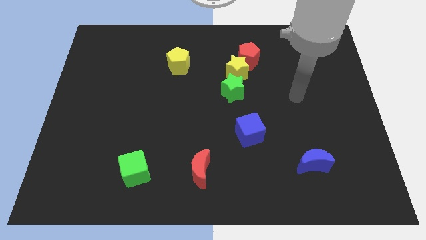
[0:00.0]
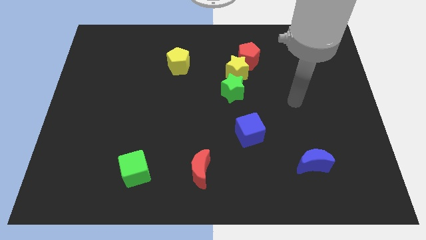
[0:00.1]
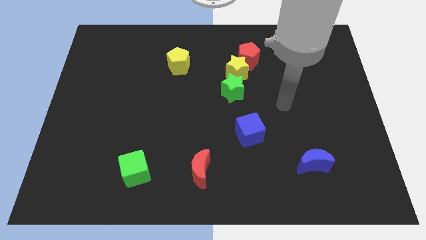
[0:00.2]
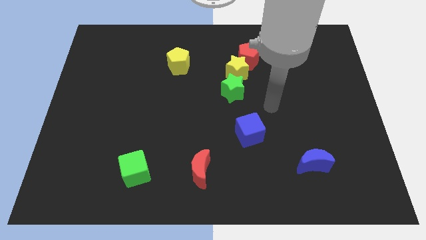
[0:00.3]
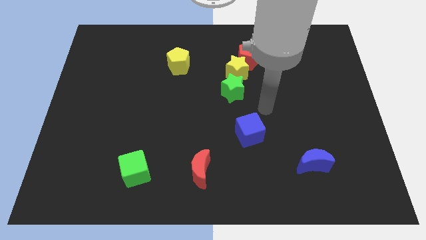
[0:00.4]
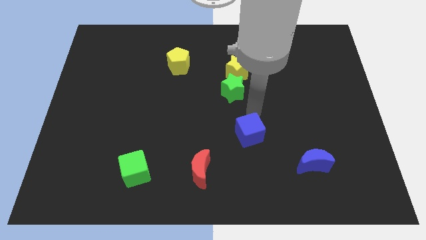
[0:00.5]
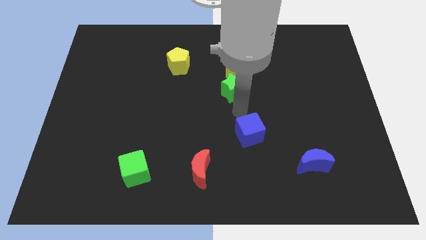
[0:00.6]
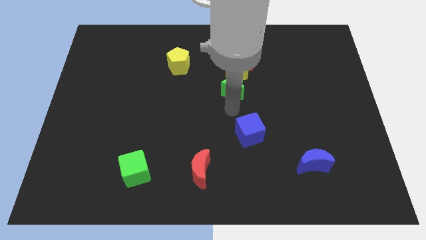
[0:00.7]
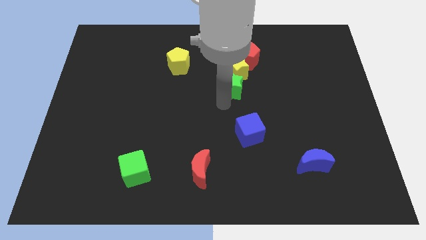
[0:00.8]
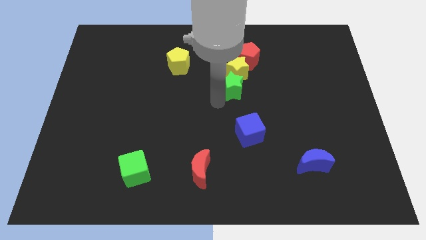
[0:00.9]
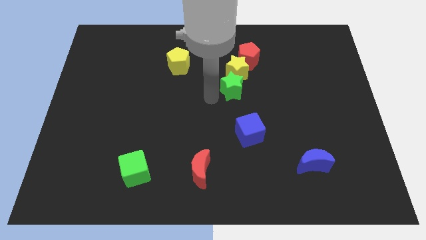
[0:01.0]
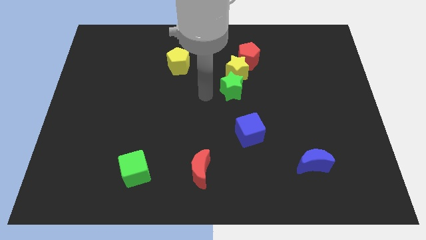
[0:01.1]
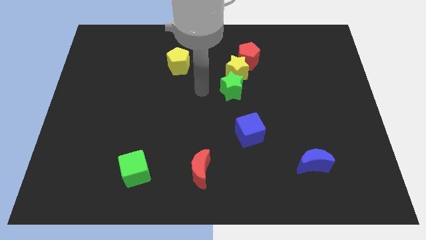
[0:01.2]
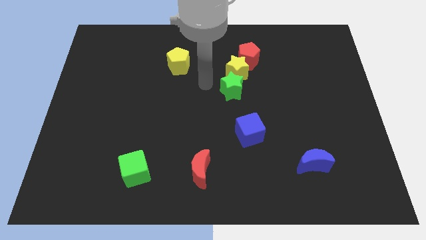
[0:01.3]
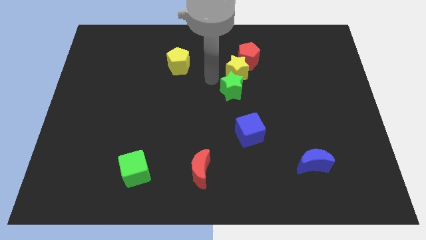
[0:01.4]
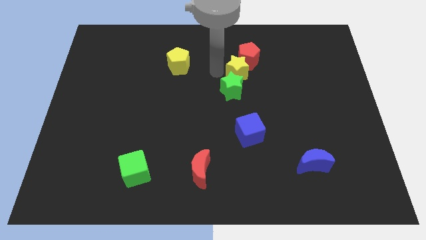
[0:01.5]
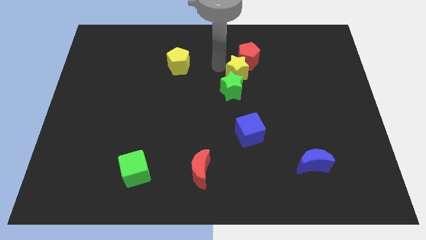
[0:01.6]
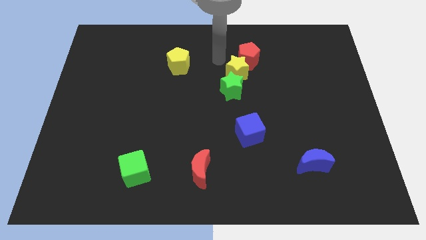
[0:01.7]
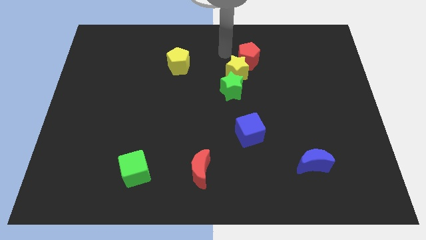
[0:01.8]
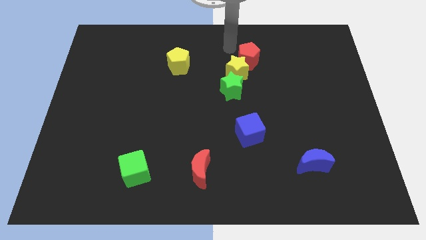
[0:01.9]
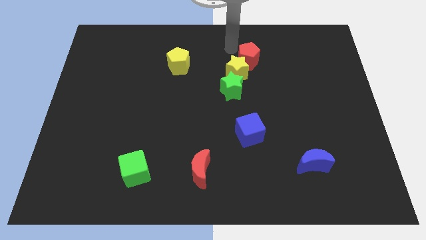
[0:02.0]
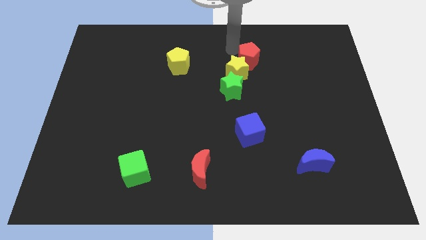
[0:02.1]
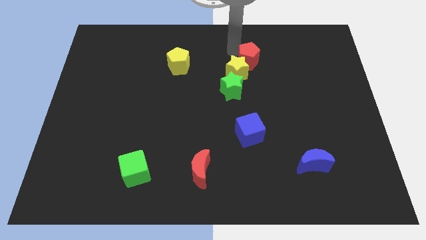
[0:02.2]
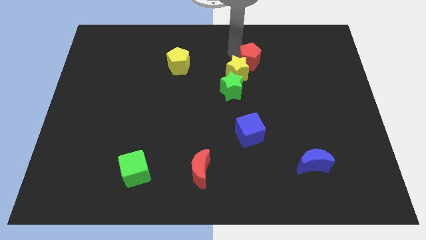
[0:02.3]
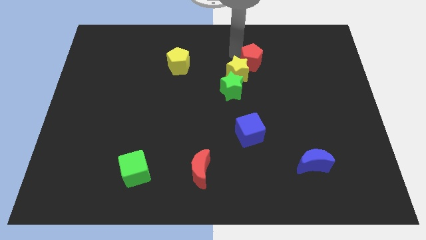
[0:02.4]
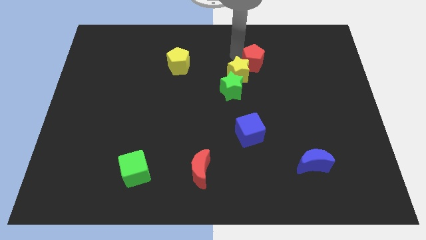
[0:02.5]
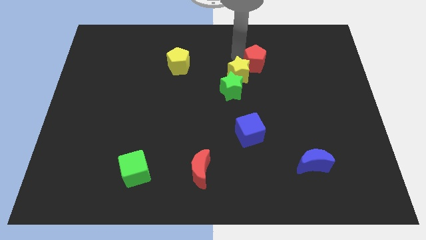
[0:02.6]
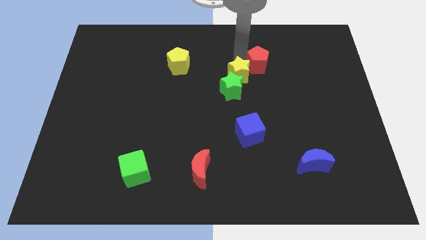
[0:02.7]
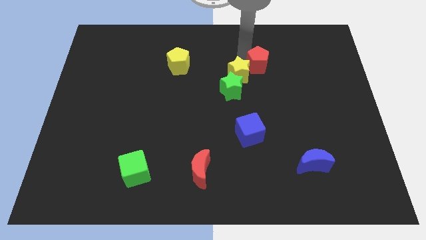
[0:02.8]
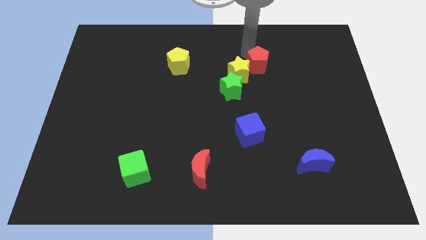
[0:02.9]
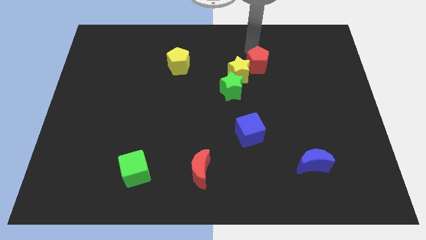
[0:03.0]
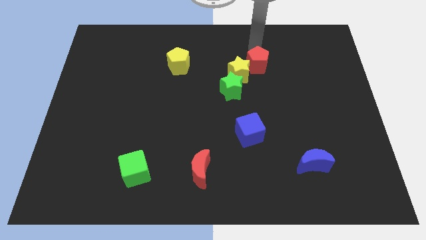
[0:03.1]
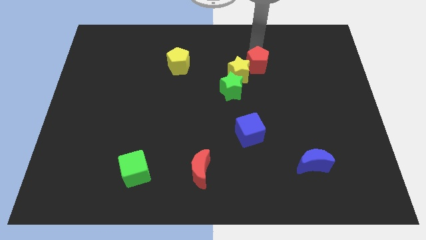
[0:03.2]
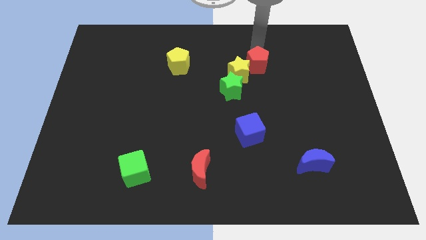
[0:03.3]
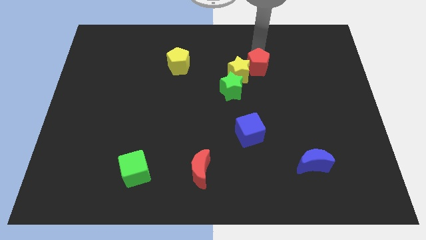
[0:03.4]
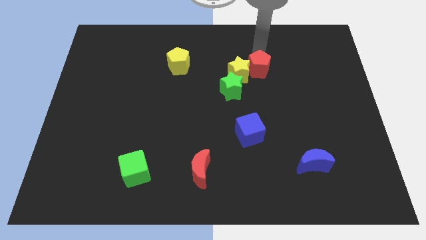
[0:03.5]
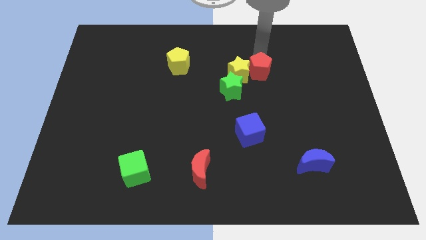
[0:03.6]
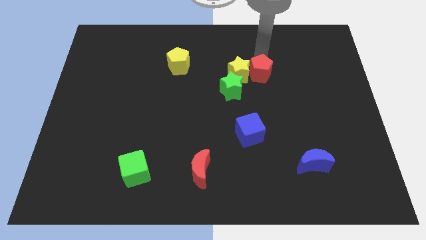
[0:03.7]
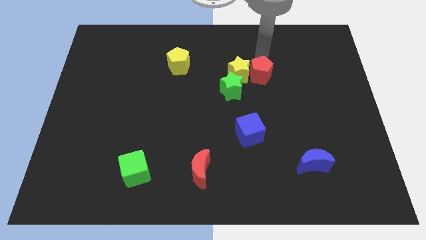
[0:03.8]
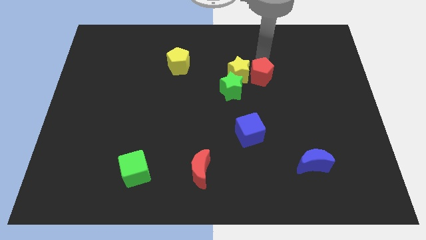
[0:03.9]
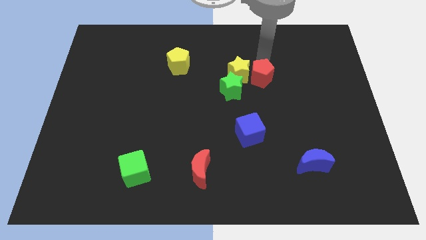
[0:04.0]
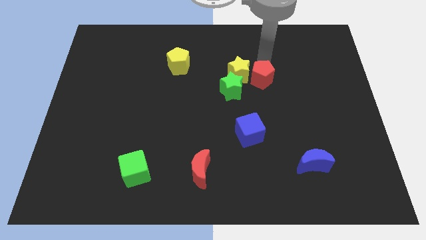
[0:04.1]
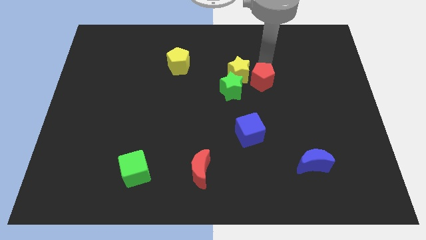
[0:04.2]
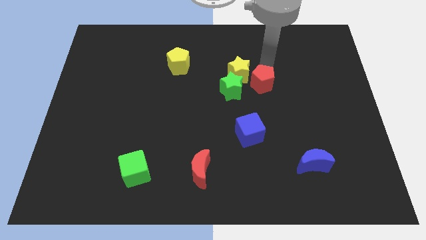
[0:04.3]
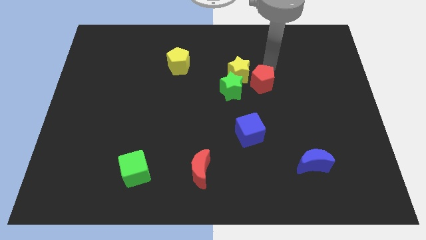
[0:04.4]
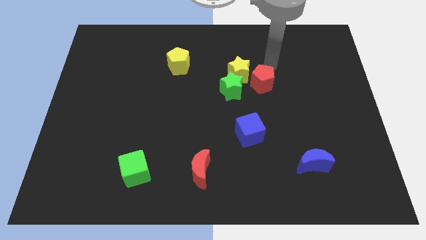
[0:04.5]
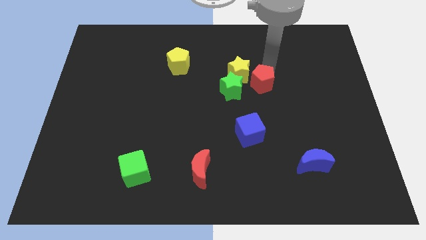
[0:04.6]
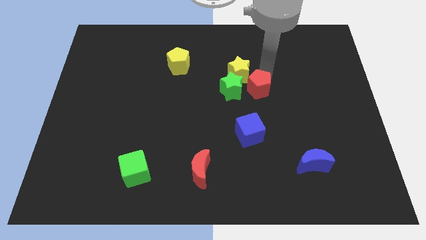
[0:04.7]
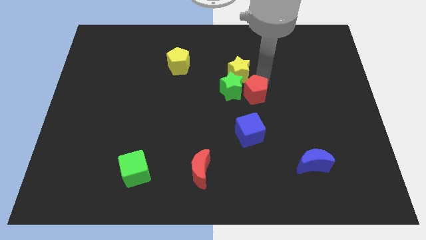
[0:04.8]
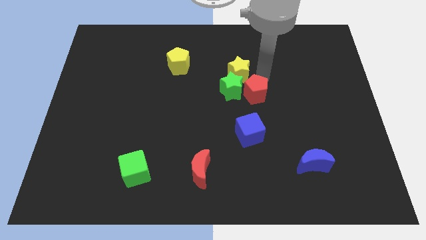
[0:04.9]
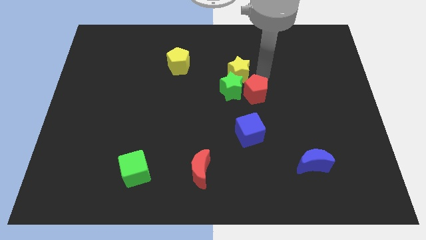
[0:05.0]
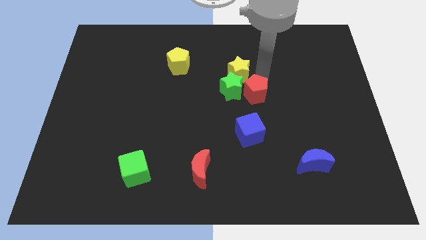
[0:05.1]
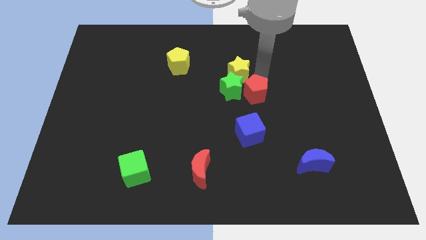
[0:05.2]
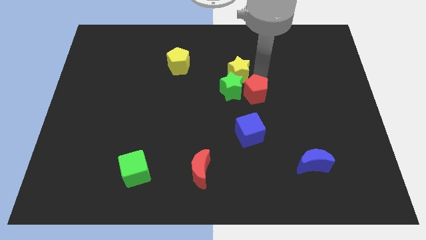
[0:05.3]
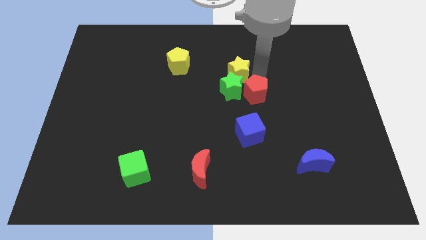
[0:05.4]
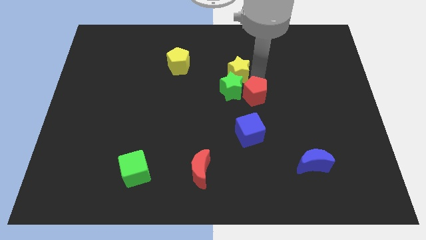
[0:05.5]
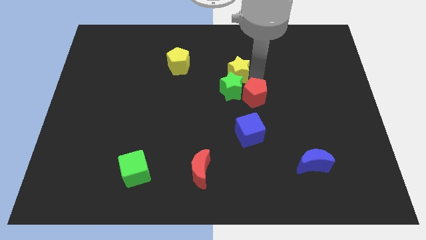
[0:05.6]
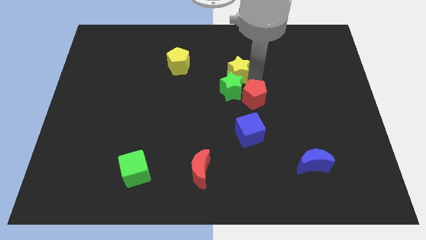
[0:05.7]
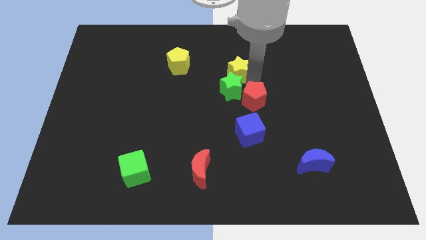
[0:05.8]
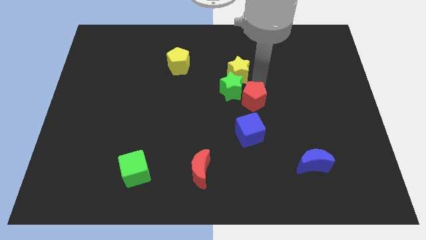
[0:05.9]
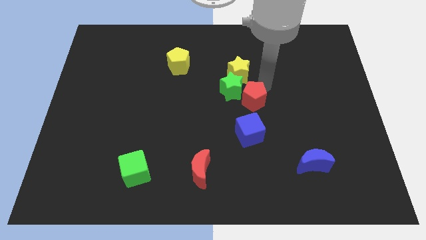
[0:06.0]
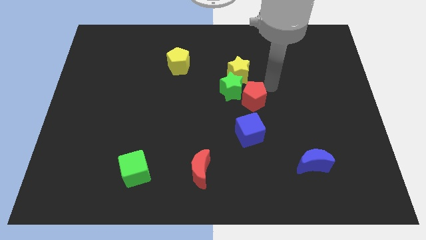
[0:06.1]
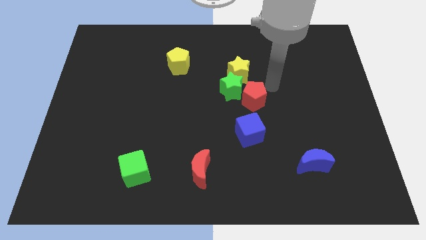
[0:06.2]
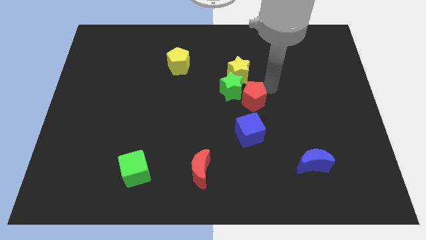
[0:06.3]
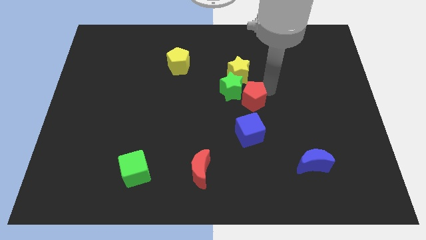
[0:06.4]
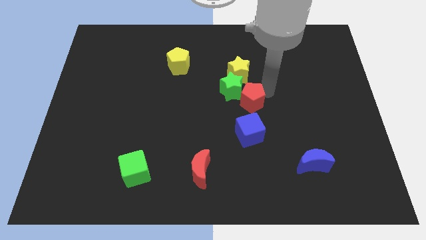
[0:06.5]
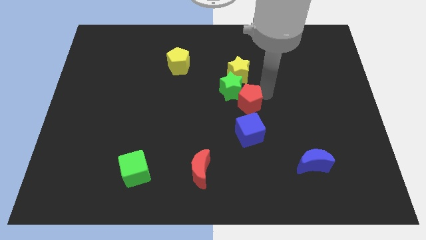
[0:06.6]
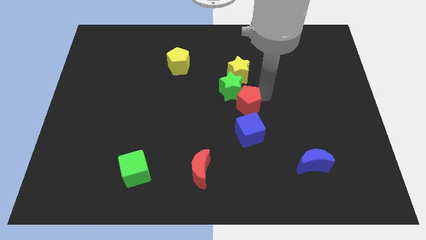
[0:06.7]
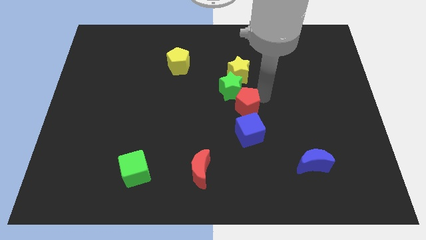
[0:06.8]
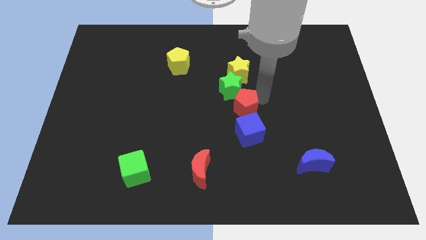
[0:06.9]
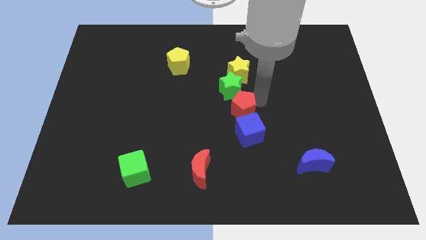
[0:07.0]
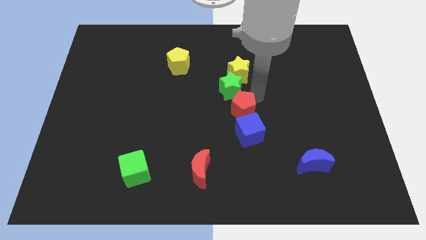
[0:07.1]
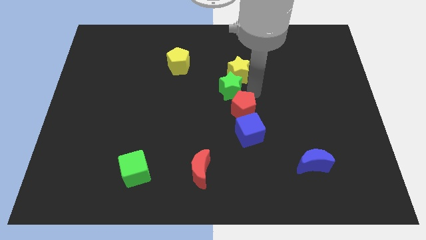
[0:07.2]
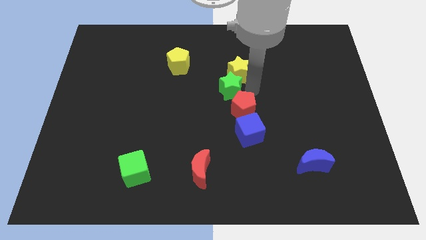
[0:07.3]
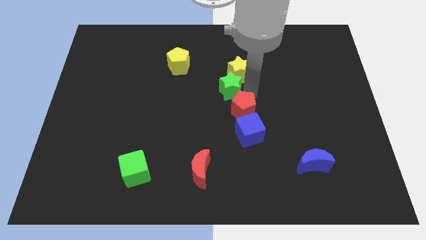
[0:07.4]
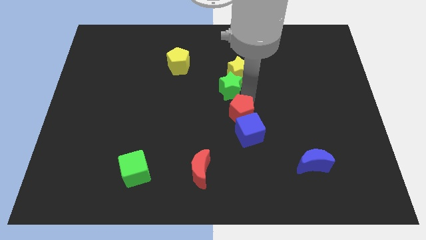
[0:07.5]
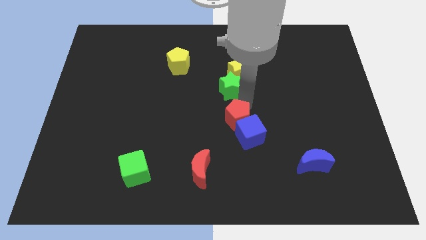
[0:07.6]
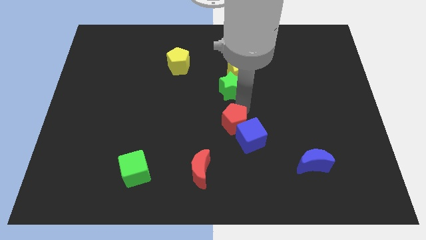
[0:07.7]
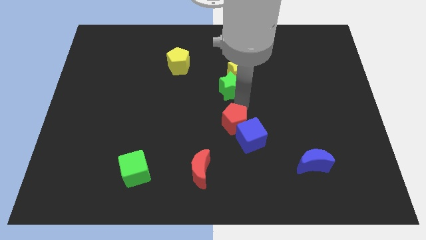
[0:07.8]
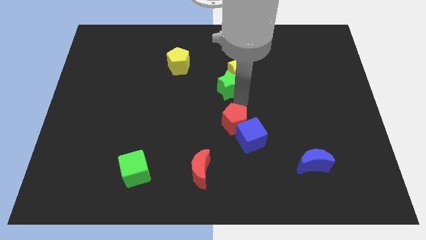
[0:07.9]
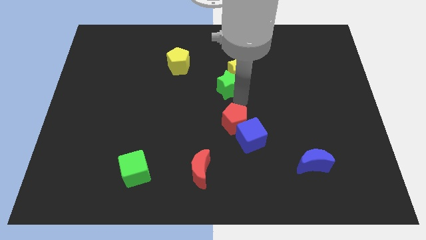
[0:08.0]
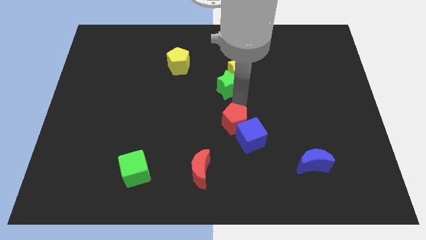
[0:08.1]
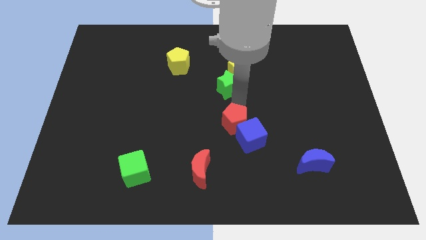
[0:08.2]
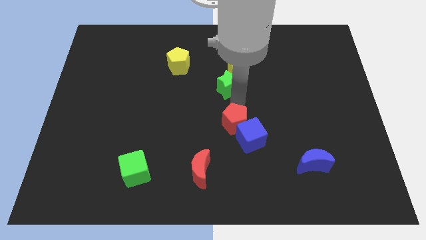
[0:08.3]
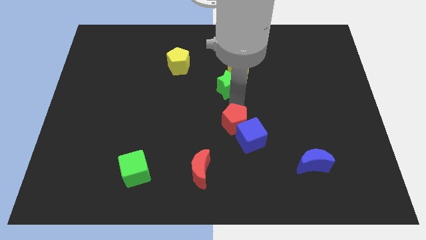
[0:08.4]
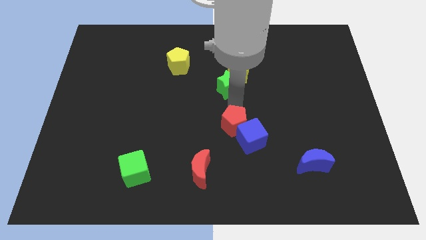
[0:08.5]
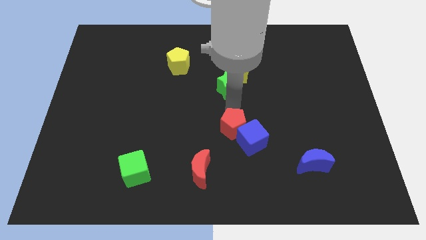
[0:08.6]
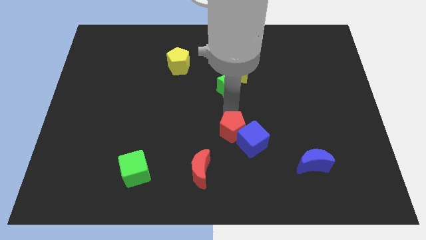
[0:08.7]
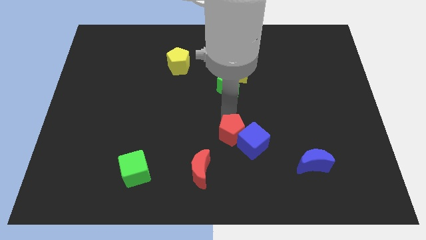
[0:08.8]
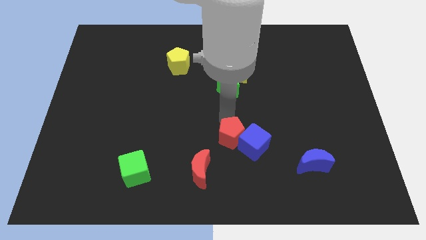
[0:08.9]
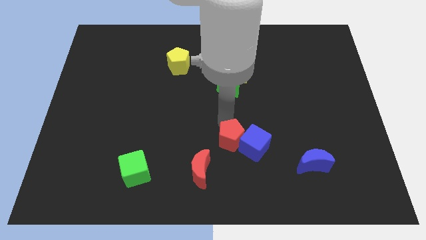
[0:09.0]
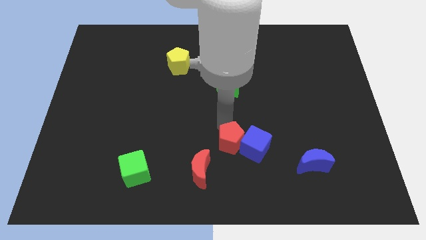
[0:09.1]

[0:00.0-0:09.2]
push the red pentagon to the bottom left side of the blue cube
